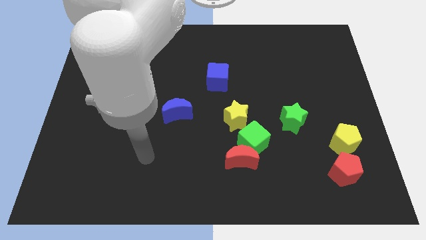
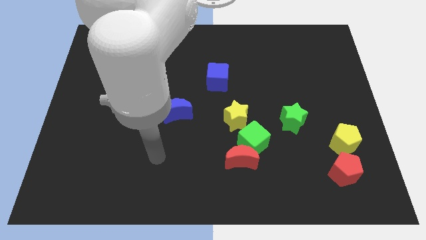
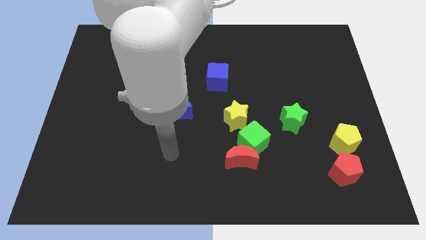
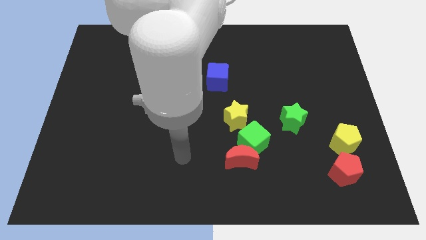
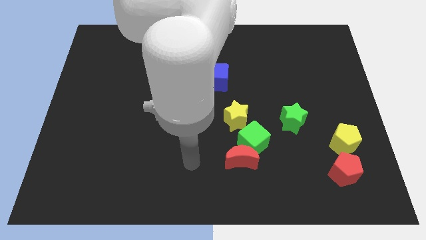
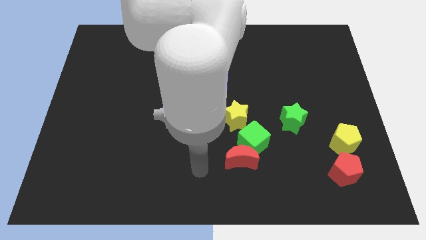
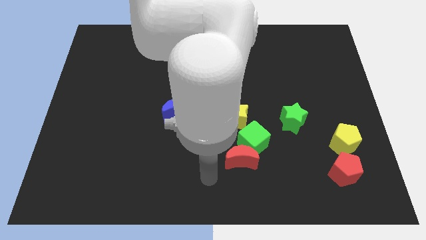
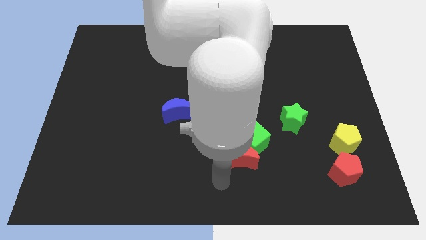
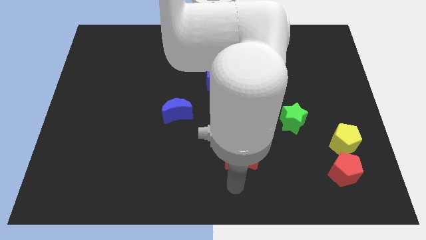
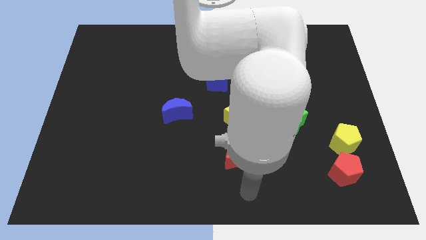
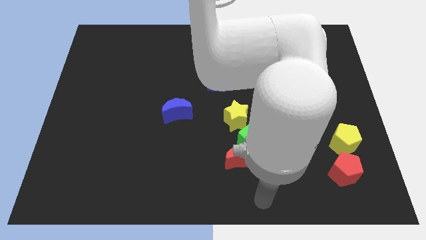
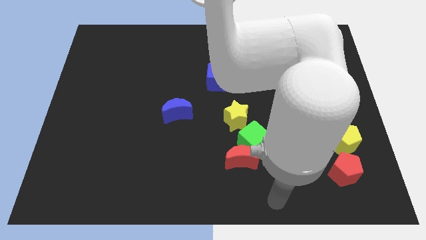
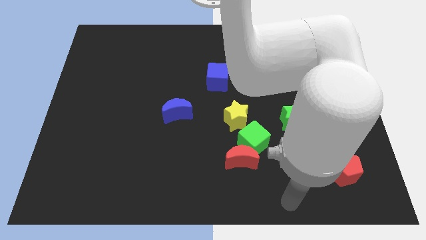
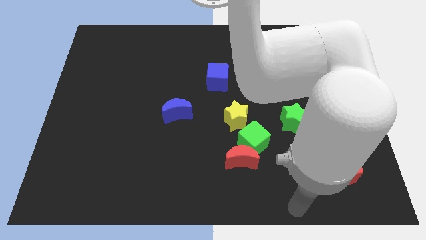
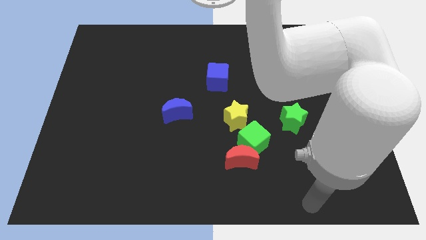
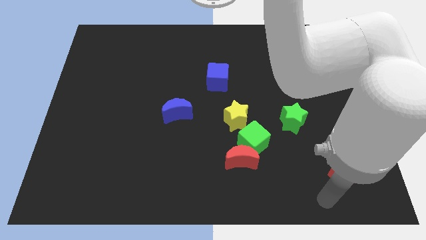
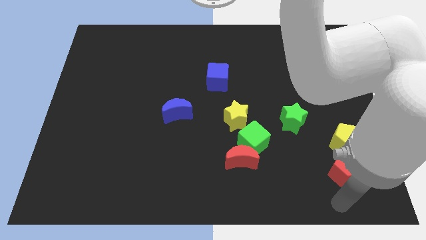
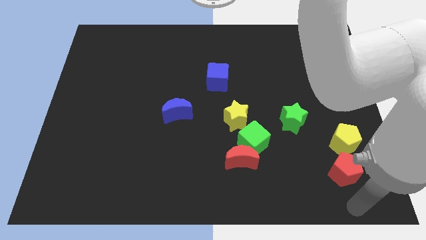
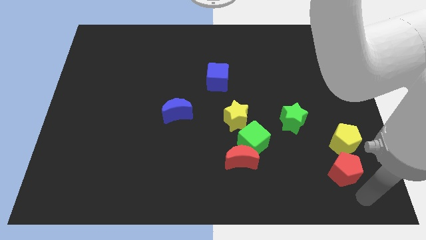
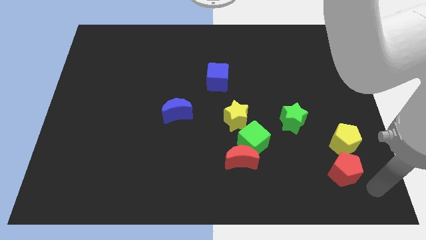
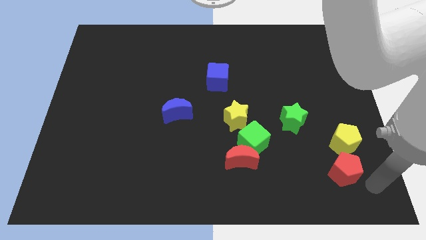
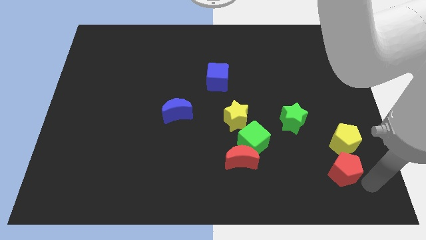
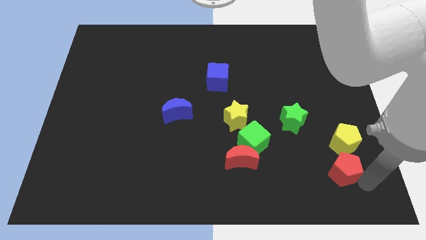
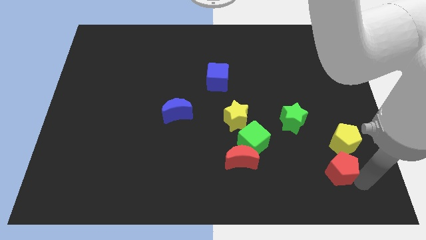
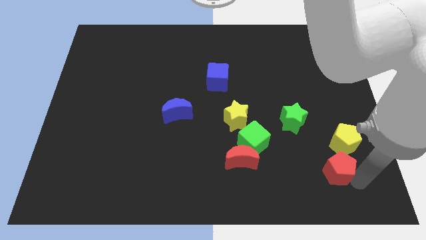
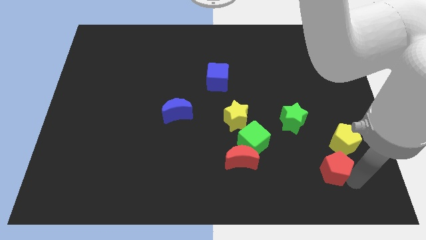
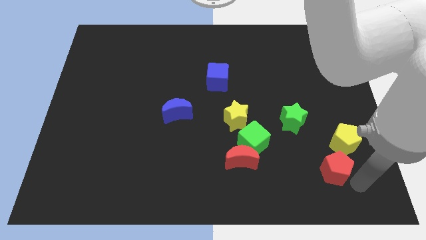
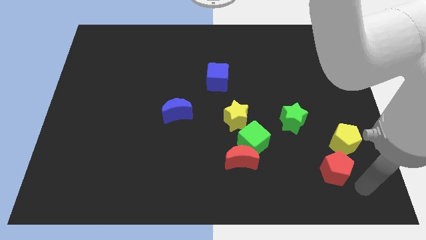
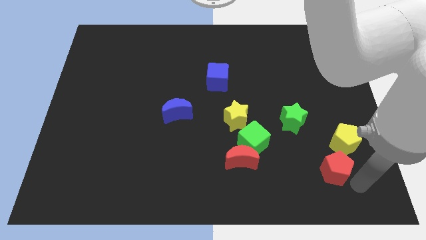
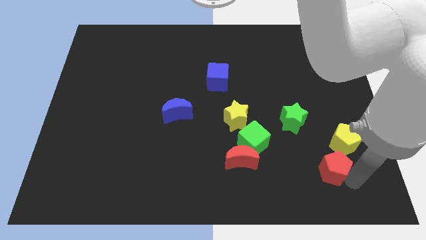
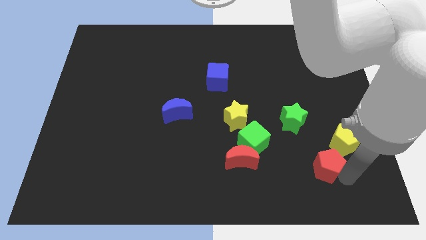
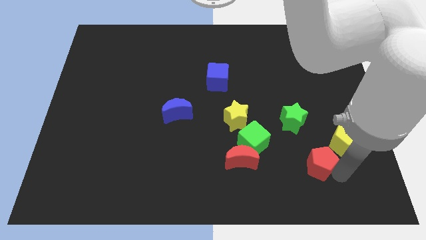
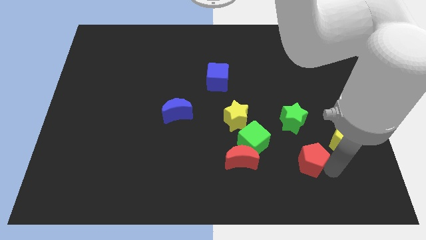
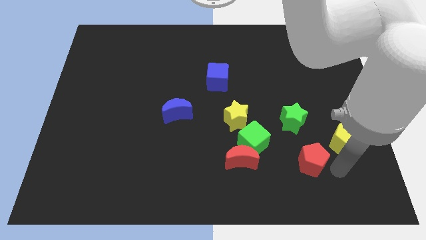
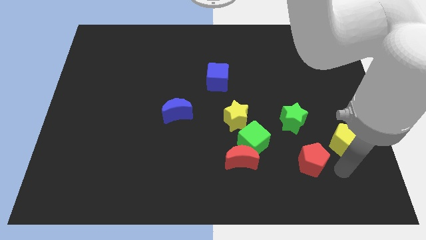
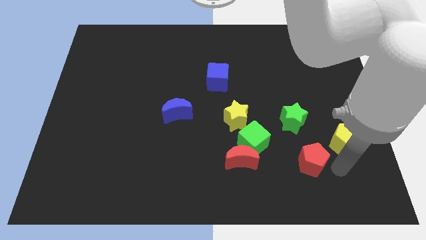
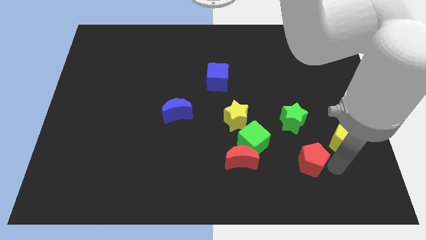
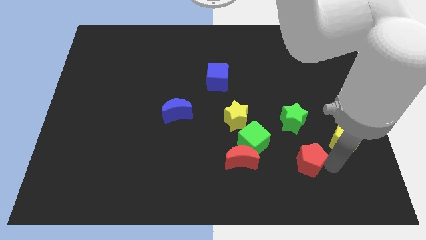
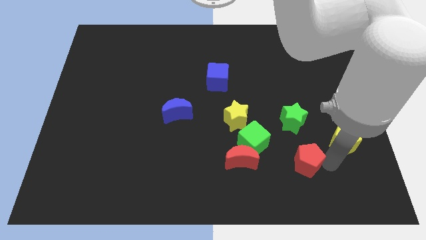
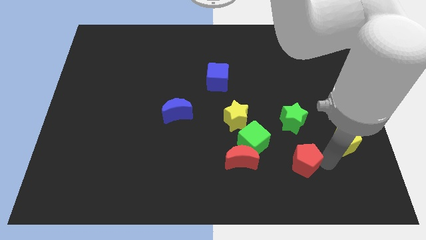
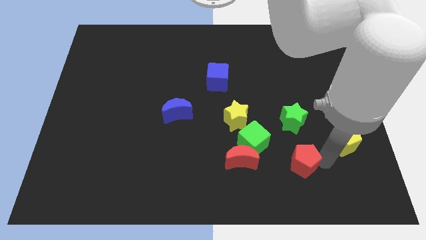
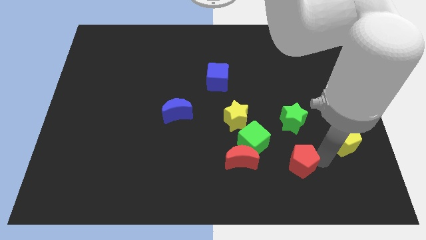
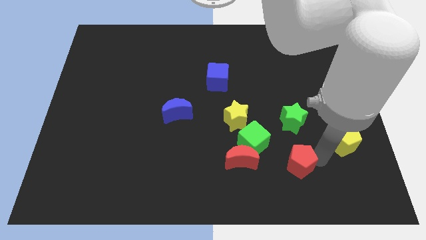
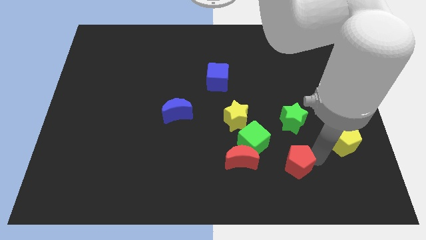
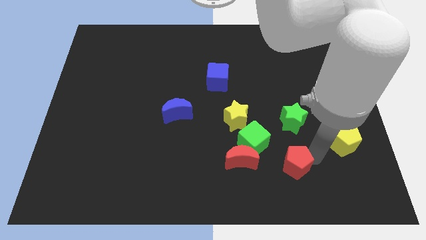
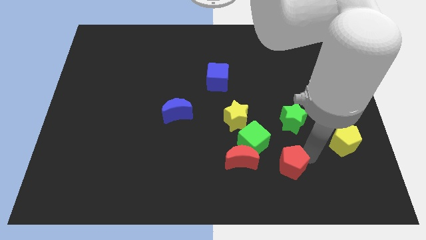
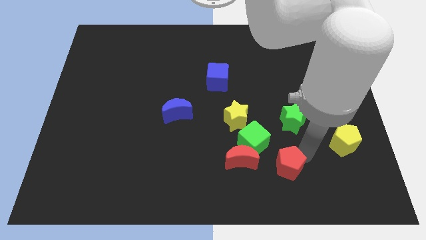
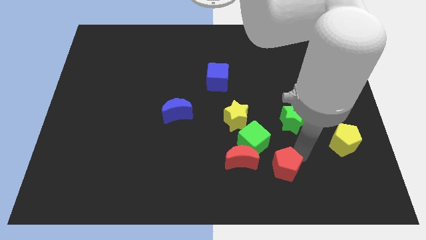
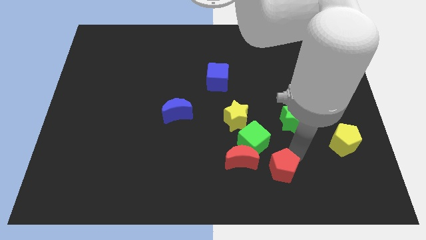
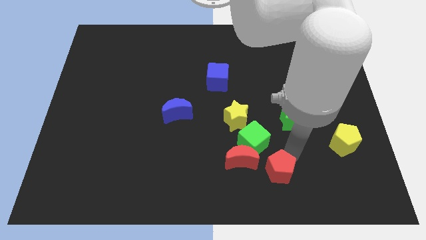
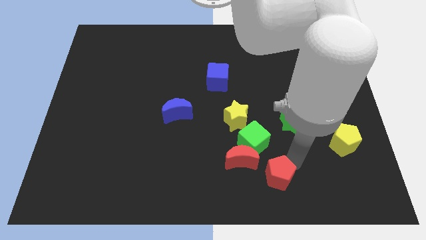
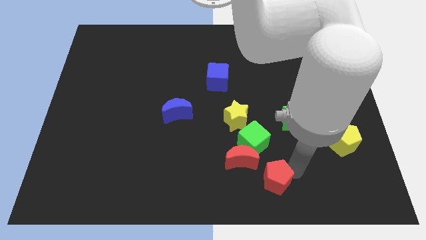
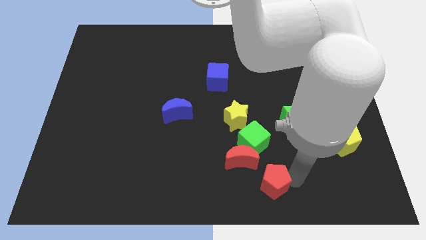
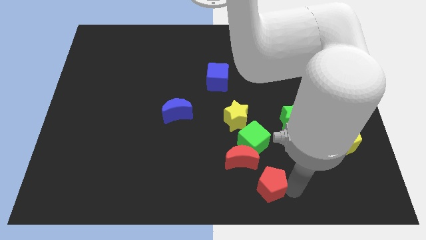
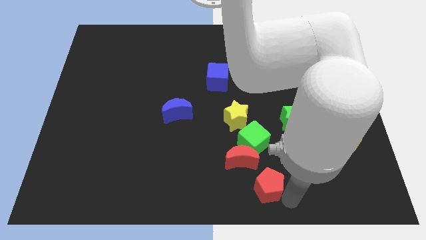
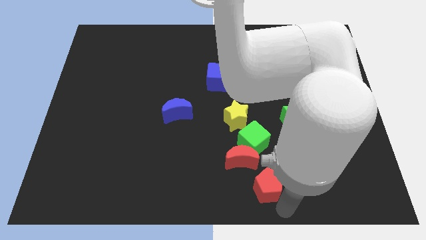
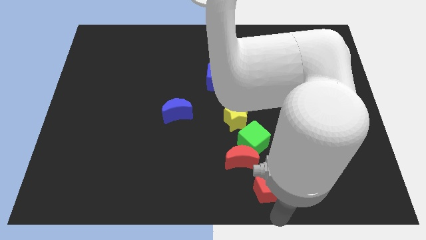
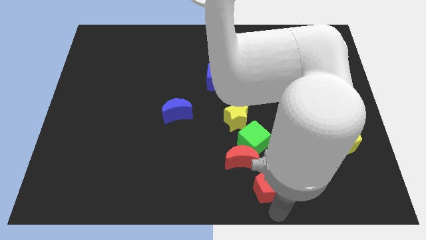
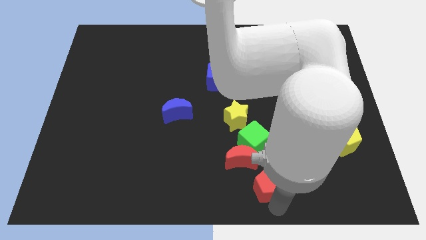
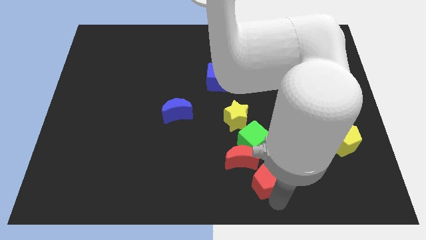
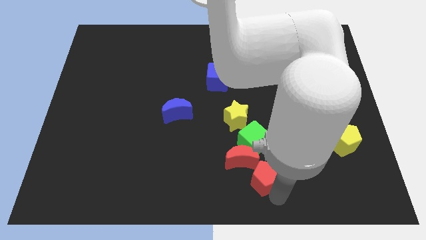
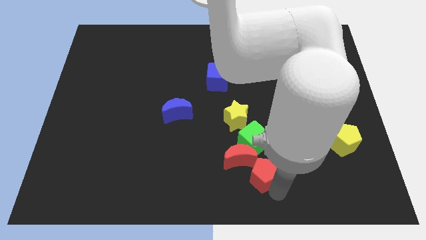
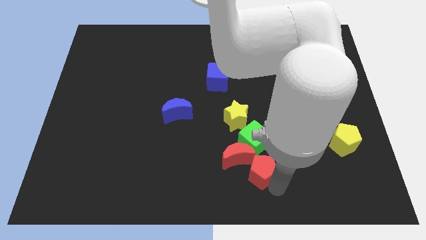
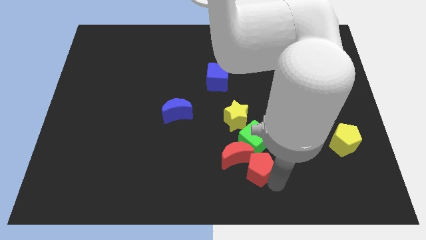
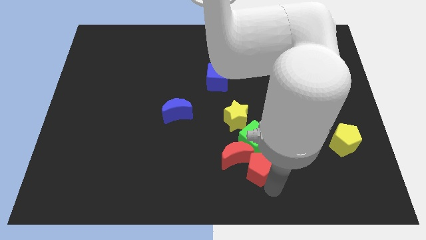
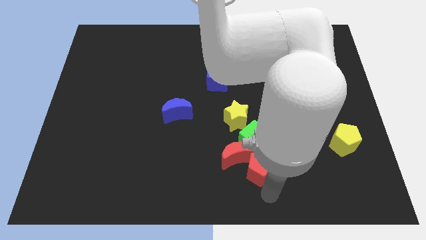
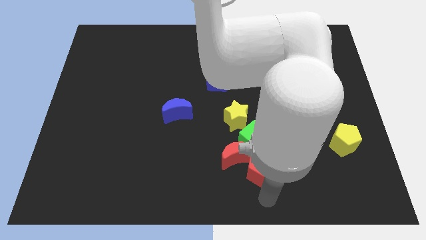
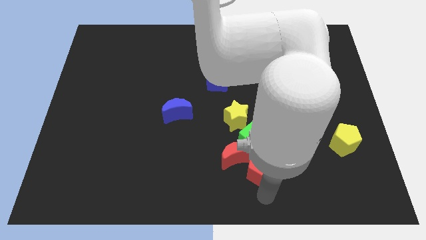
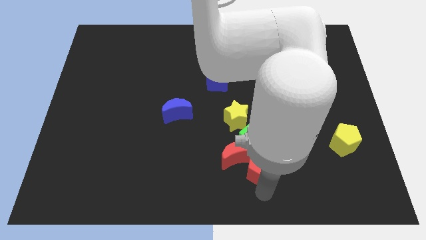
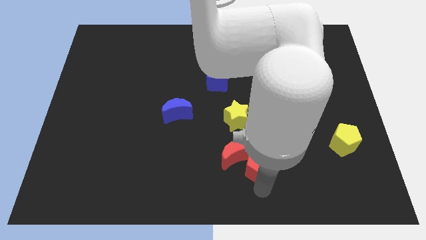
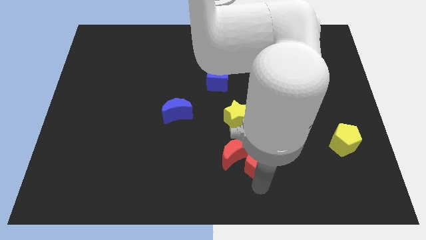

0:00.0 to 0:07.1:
move the red pentagon to the green cube

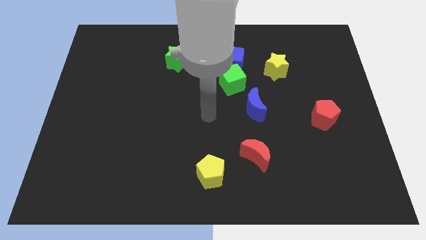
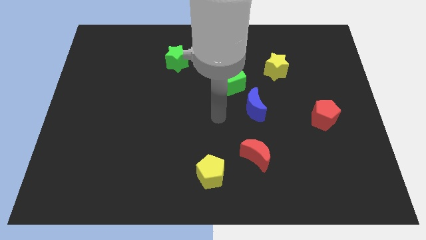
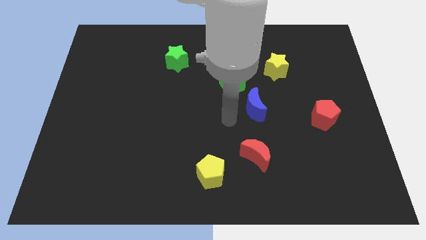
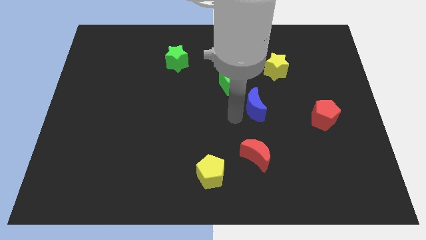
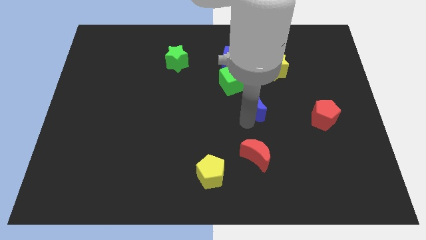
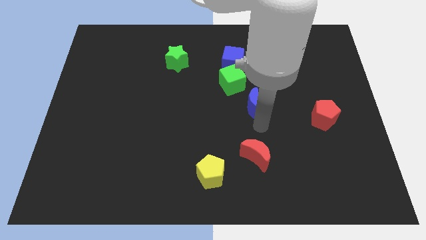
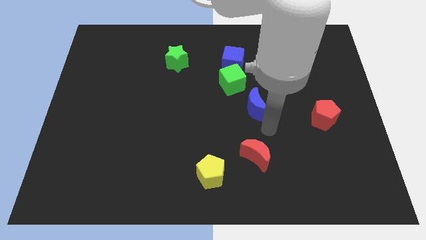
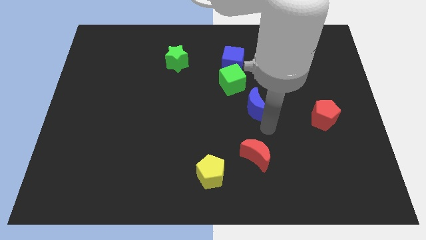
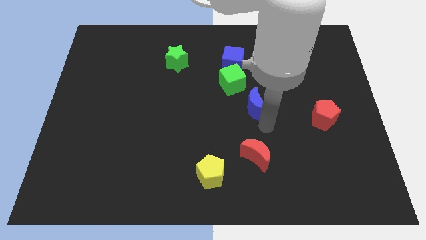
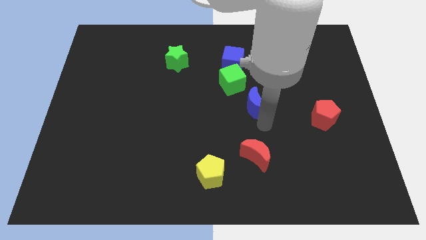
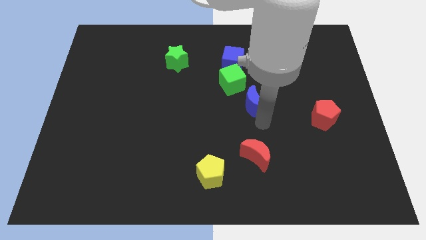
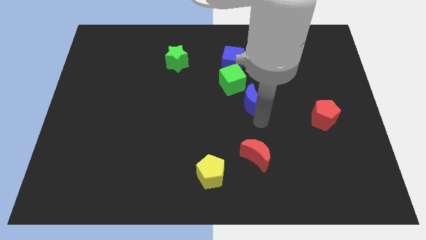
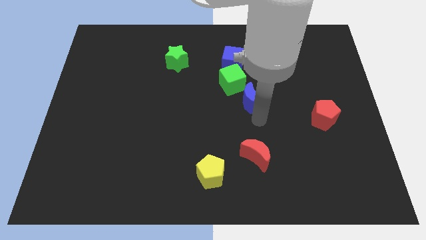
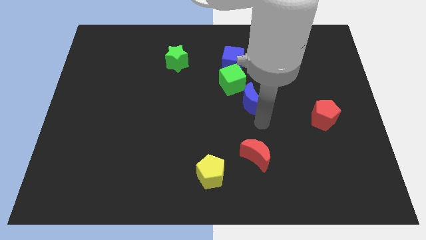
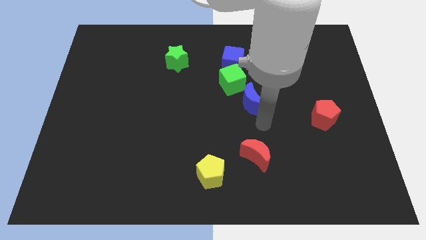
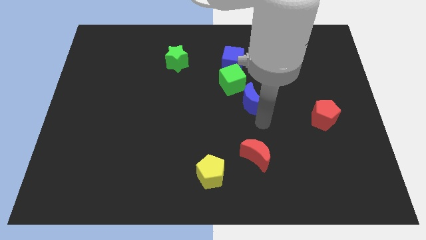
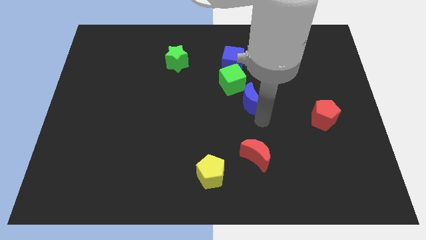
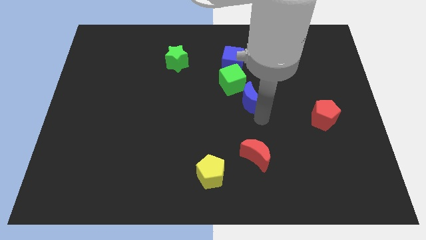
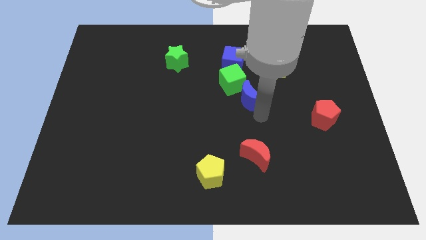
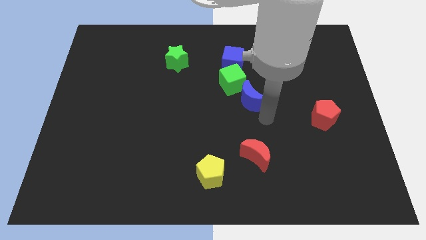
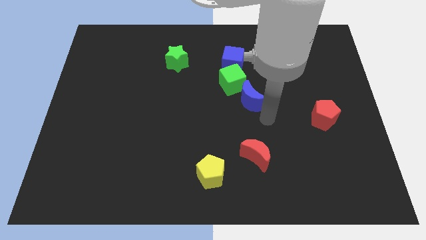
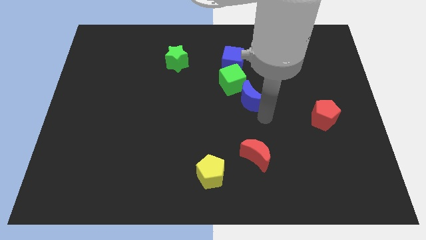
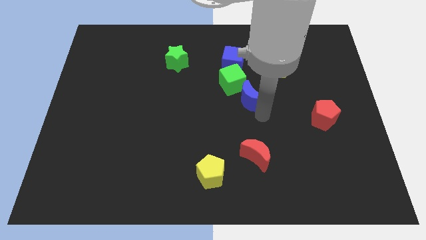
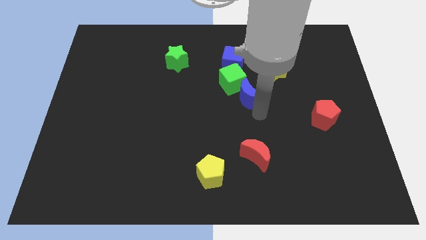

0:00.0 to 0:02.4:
move the blue moon towards the green cube
